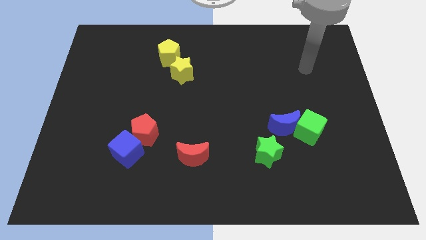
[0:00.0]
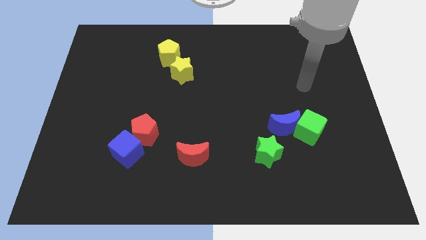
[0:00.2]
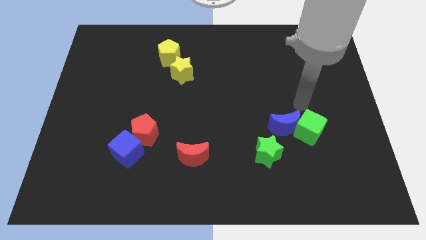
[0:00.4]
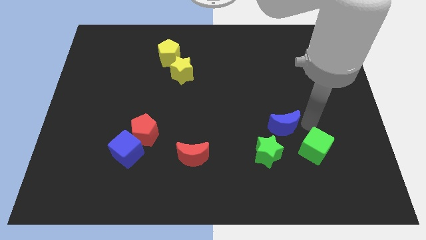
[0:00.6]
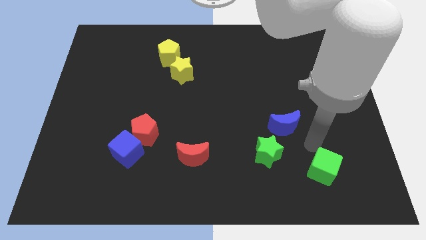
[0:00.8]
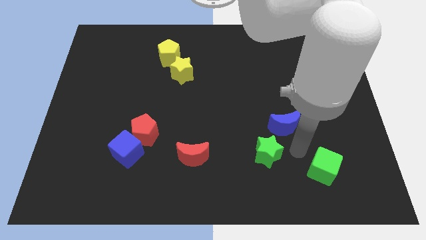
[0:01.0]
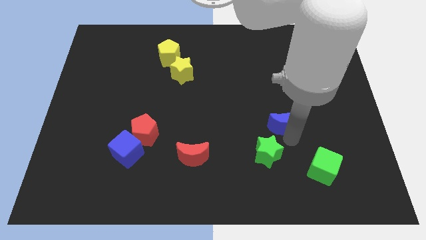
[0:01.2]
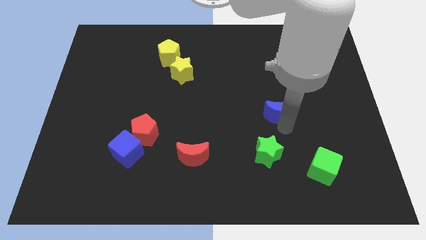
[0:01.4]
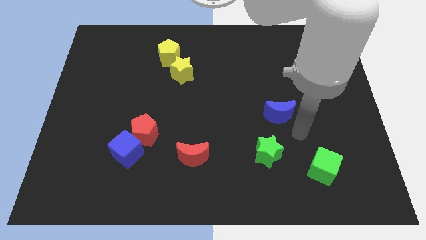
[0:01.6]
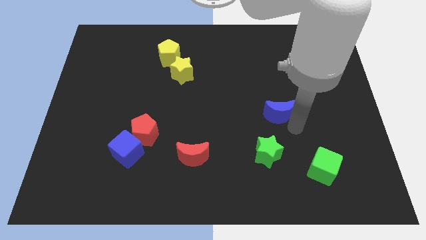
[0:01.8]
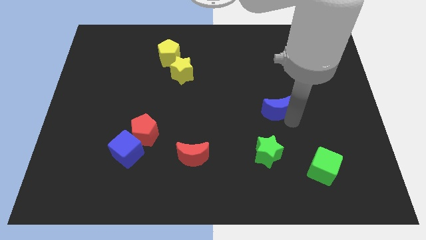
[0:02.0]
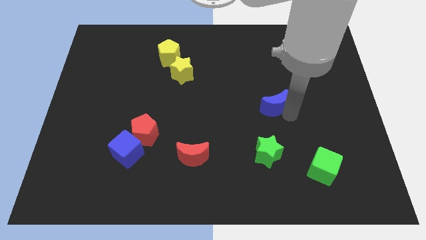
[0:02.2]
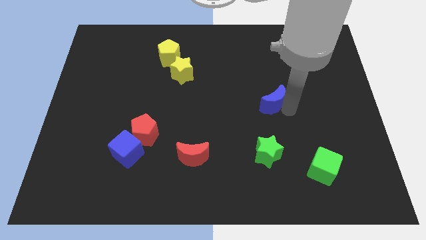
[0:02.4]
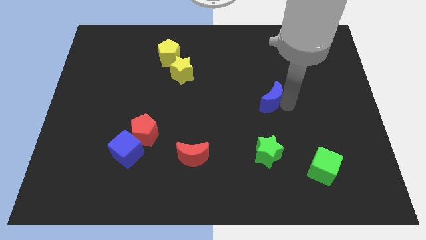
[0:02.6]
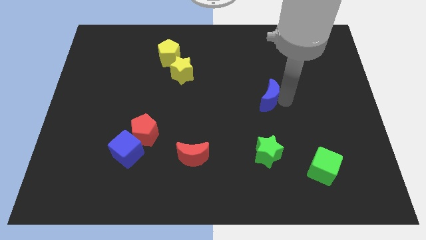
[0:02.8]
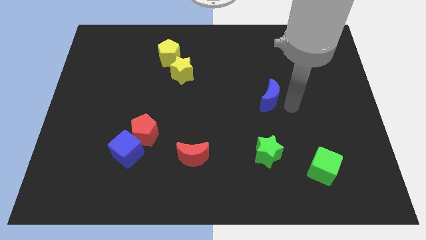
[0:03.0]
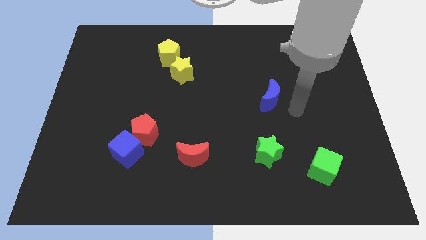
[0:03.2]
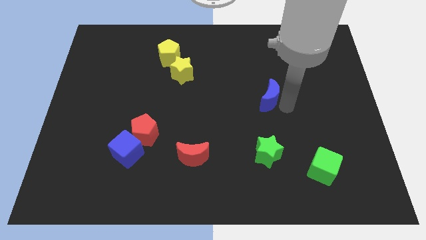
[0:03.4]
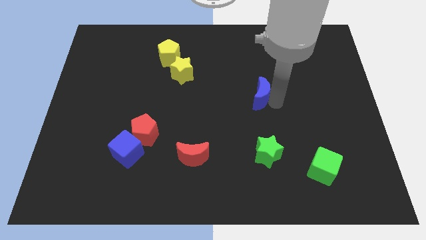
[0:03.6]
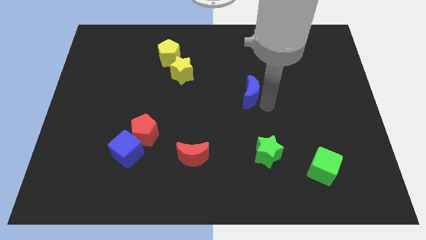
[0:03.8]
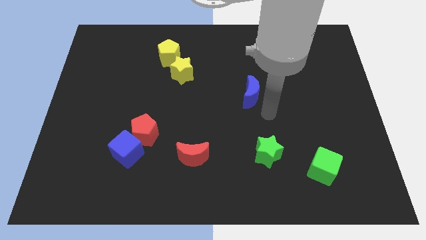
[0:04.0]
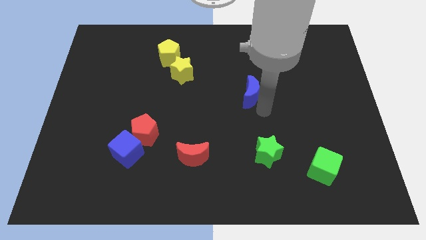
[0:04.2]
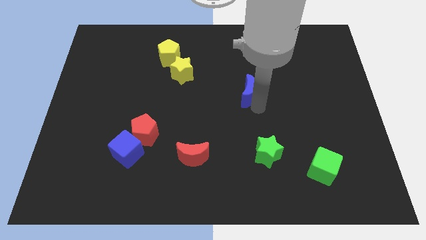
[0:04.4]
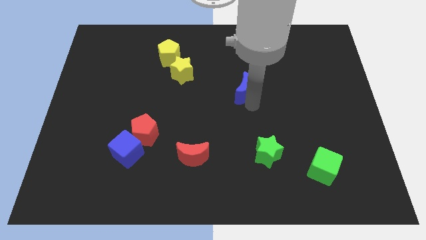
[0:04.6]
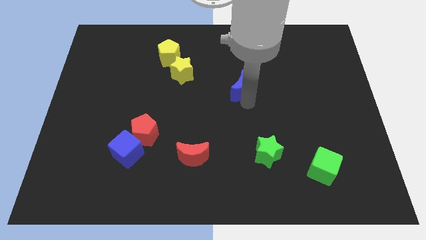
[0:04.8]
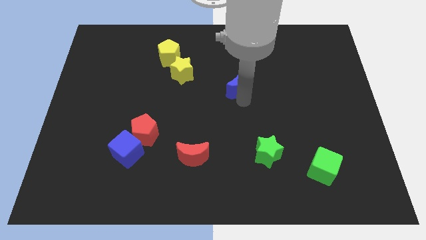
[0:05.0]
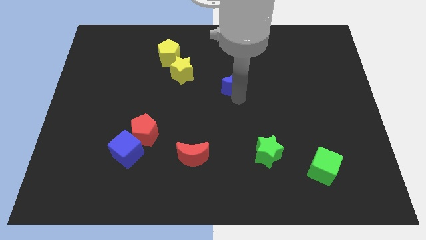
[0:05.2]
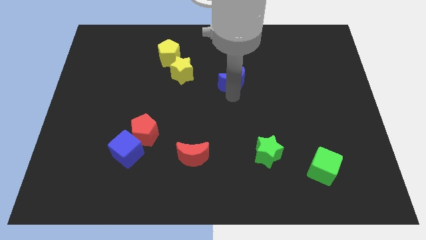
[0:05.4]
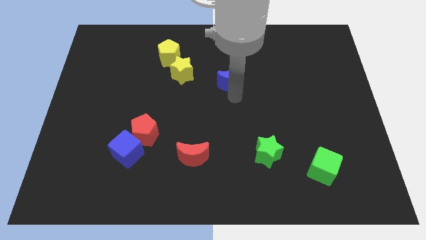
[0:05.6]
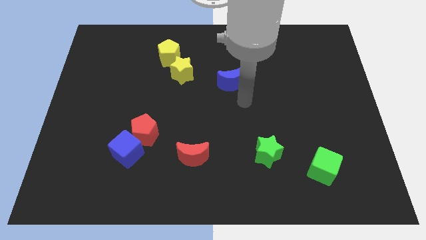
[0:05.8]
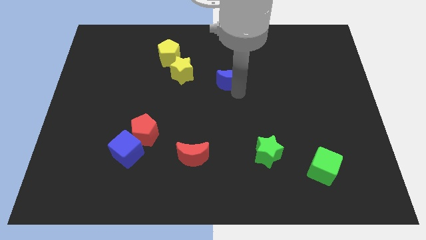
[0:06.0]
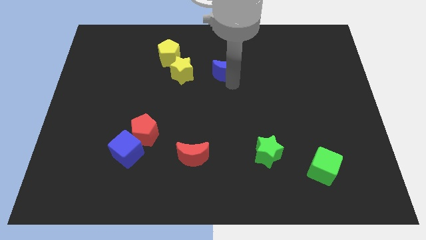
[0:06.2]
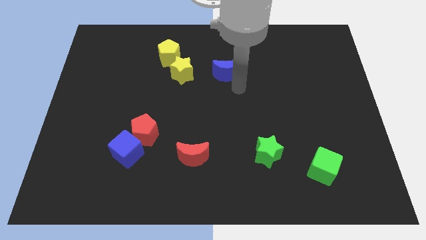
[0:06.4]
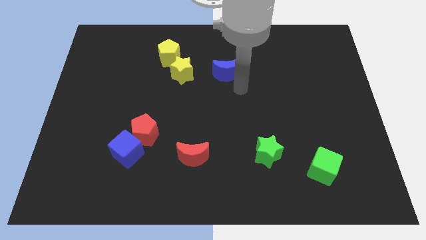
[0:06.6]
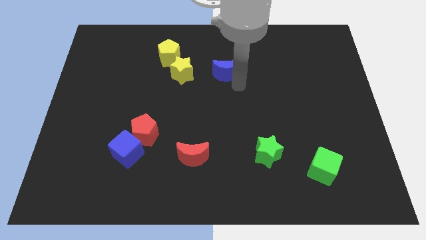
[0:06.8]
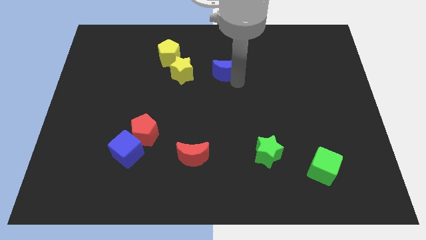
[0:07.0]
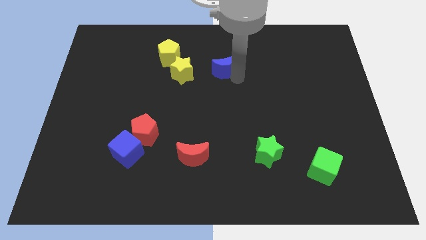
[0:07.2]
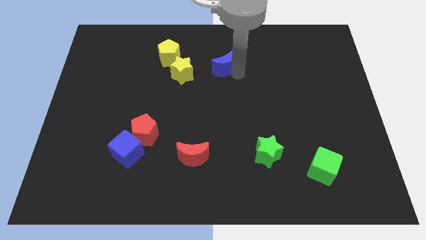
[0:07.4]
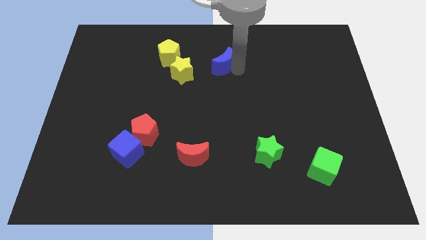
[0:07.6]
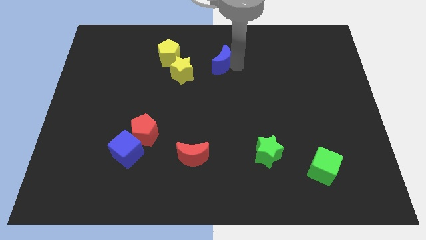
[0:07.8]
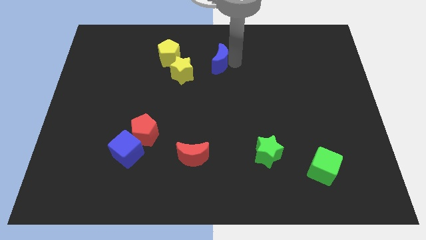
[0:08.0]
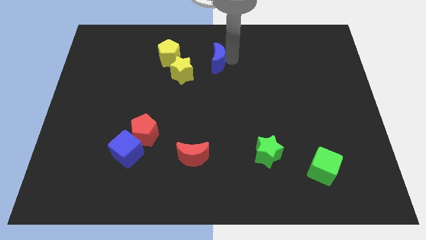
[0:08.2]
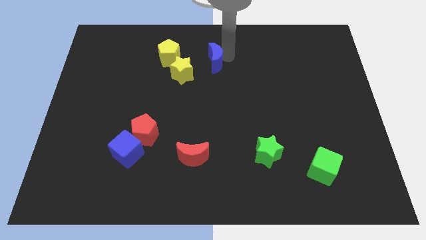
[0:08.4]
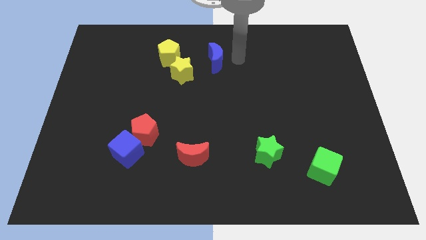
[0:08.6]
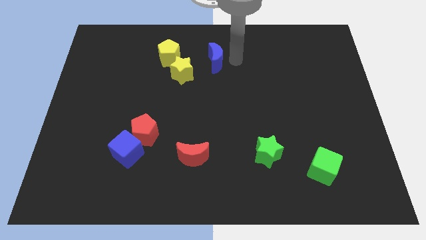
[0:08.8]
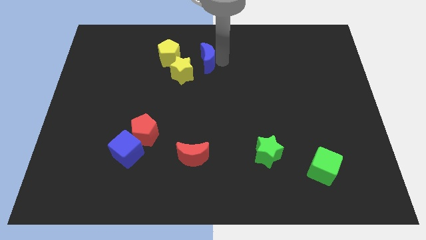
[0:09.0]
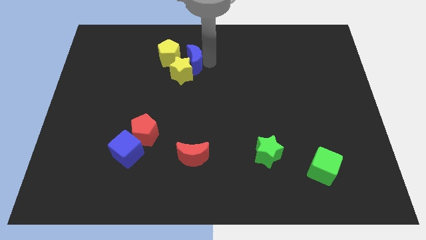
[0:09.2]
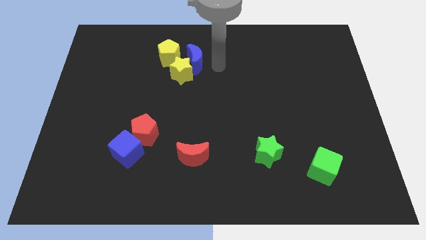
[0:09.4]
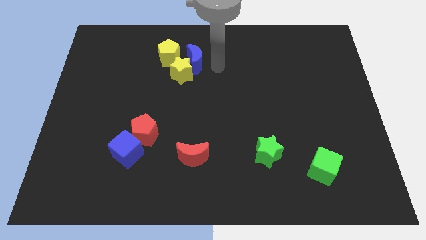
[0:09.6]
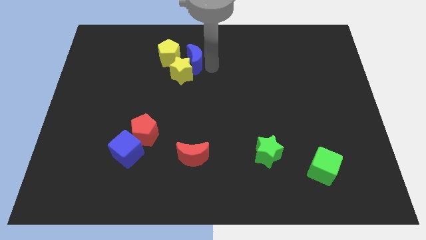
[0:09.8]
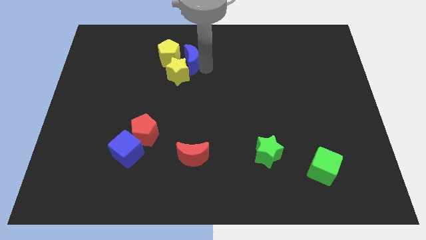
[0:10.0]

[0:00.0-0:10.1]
put the blue moon to the yellow pentagon

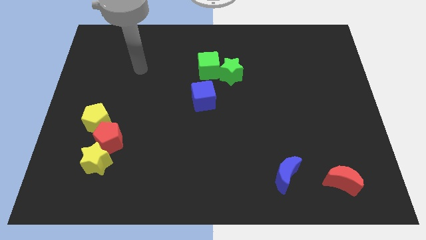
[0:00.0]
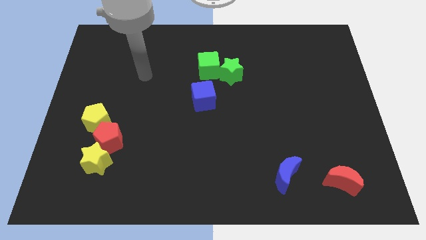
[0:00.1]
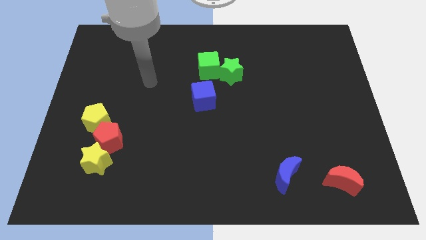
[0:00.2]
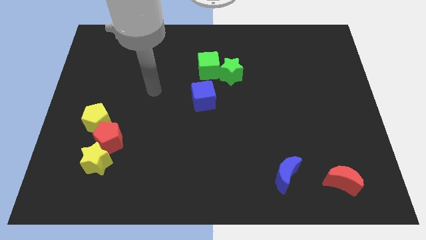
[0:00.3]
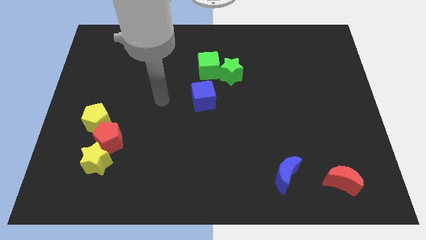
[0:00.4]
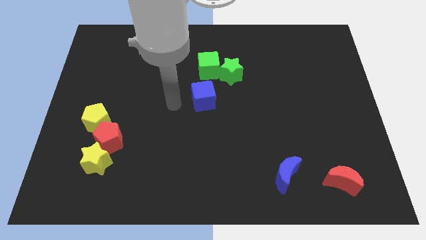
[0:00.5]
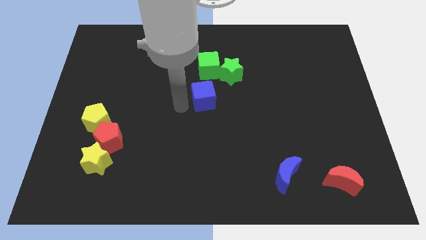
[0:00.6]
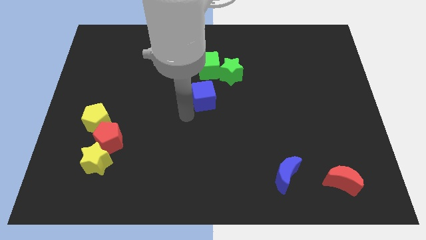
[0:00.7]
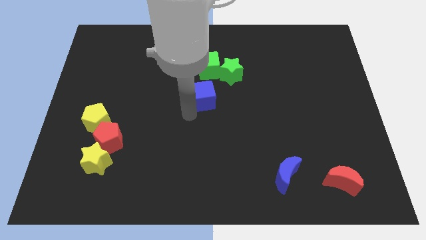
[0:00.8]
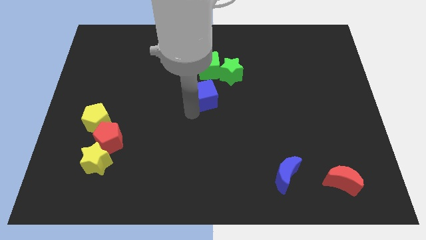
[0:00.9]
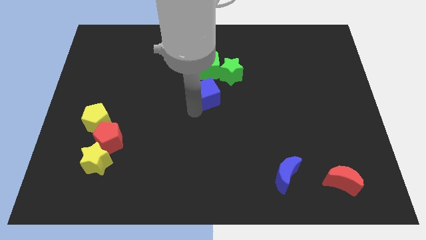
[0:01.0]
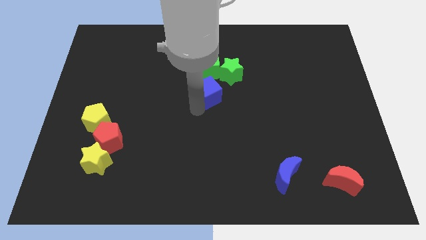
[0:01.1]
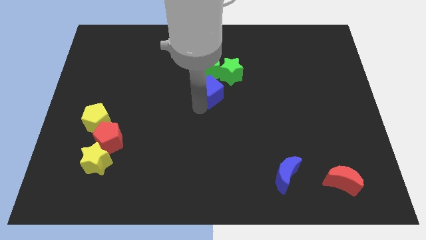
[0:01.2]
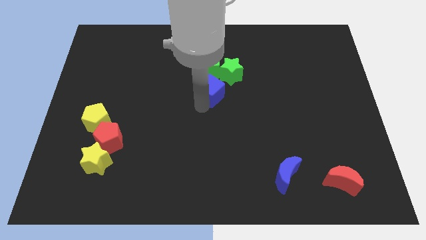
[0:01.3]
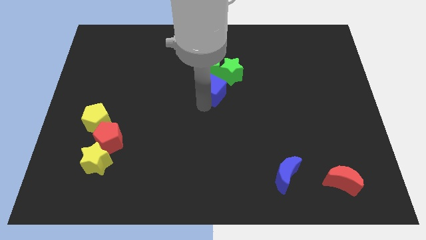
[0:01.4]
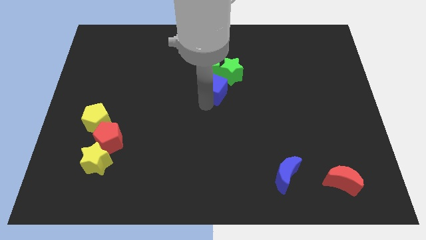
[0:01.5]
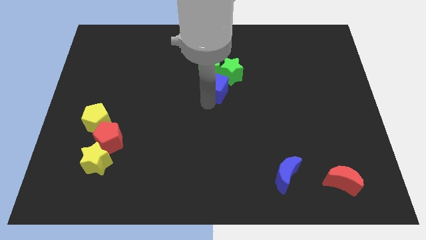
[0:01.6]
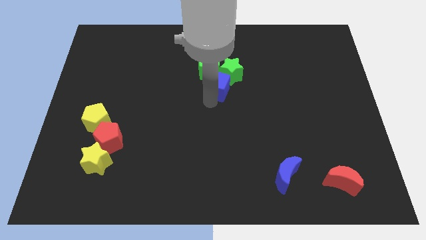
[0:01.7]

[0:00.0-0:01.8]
move the blue cube to the green star

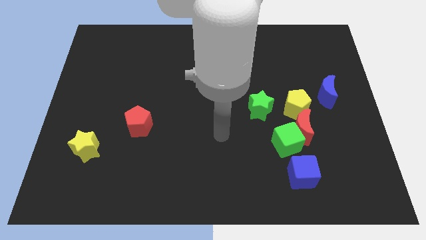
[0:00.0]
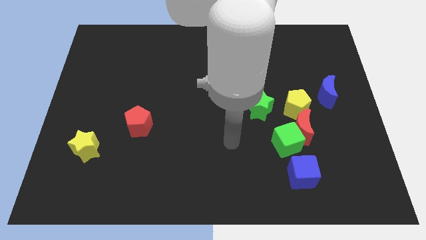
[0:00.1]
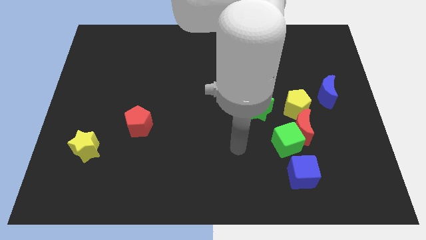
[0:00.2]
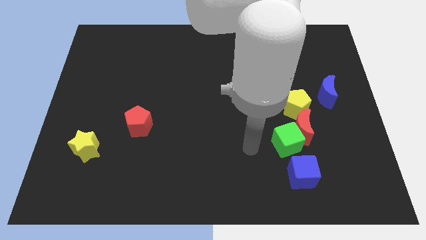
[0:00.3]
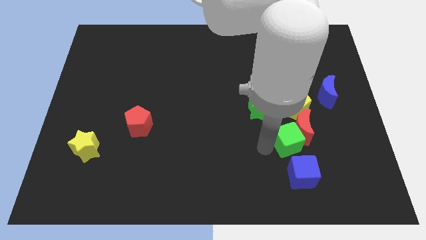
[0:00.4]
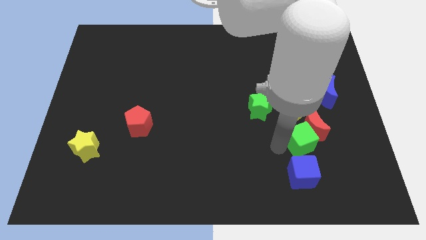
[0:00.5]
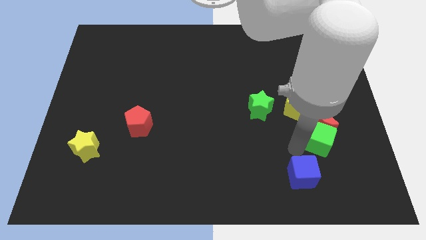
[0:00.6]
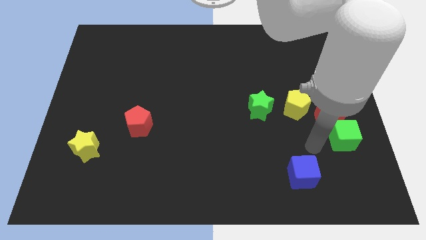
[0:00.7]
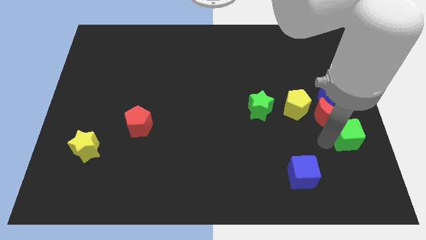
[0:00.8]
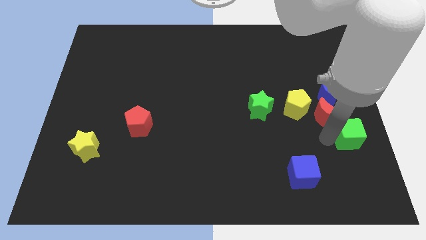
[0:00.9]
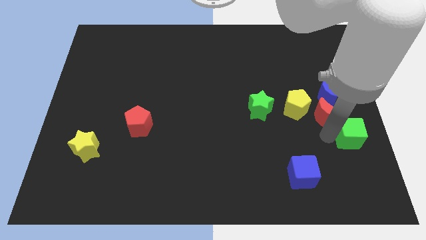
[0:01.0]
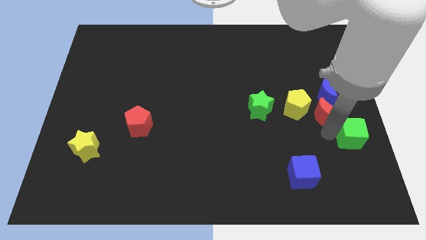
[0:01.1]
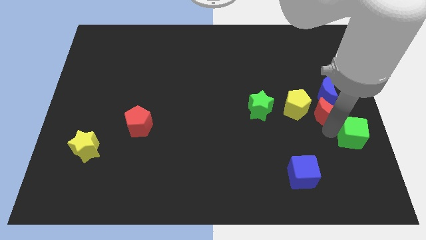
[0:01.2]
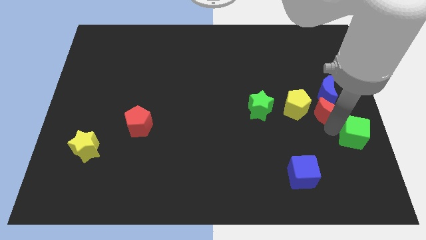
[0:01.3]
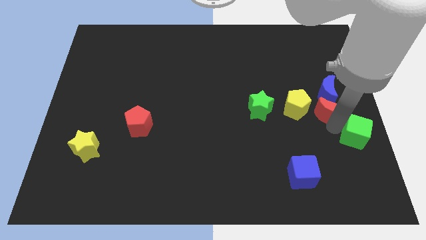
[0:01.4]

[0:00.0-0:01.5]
put the red moon next to the blue moon
